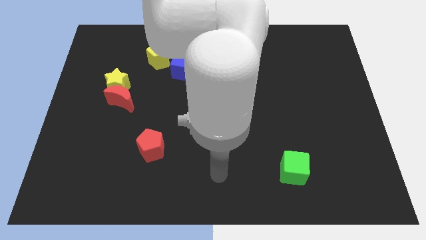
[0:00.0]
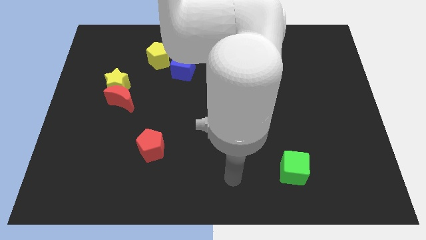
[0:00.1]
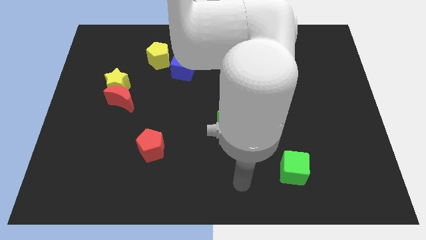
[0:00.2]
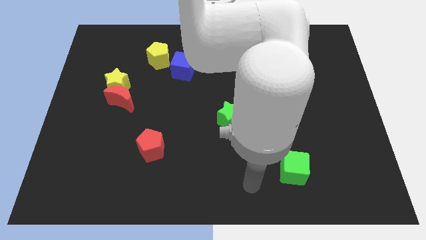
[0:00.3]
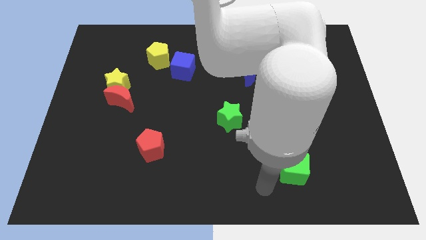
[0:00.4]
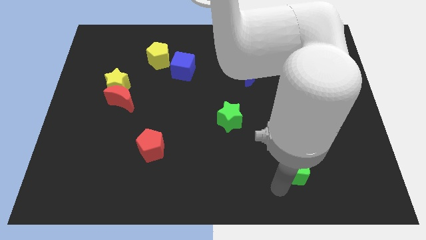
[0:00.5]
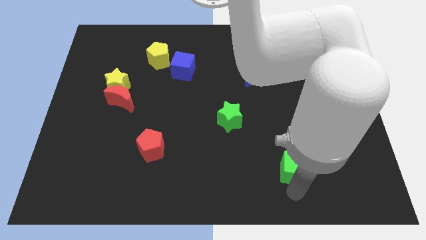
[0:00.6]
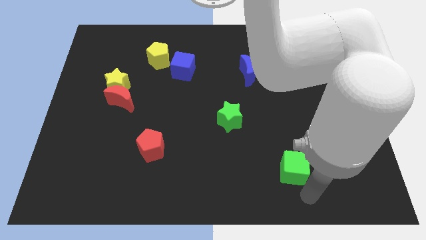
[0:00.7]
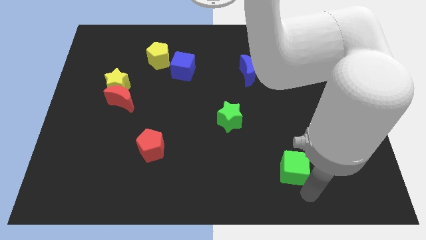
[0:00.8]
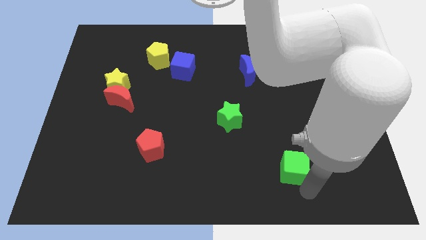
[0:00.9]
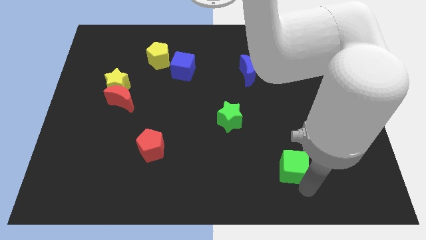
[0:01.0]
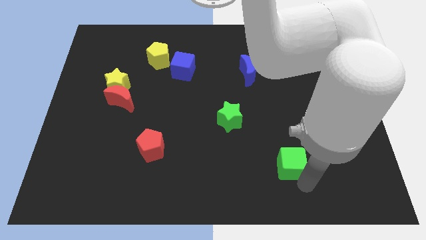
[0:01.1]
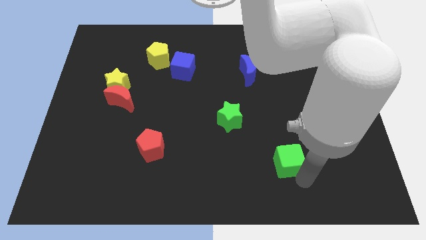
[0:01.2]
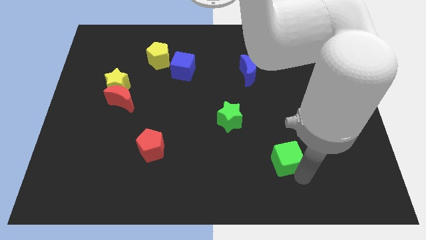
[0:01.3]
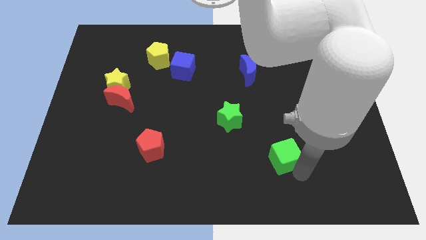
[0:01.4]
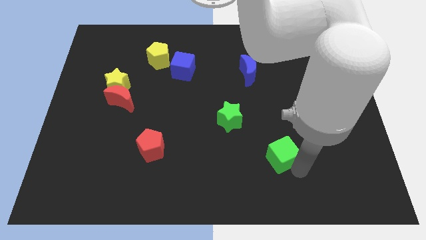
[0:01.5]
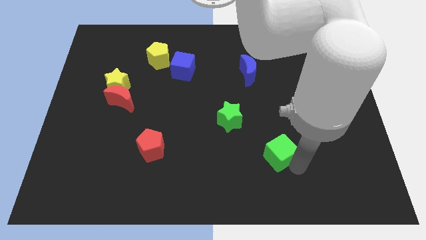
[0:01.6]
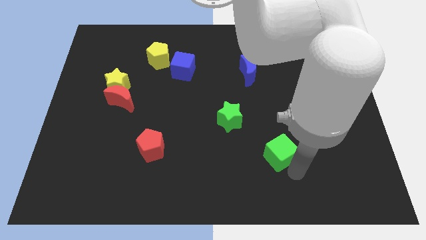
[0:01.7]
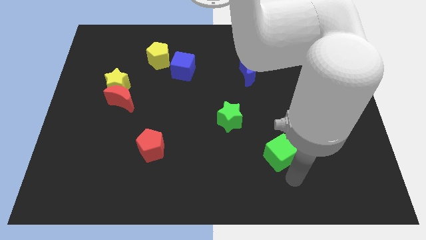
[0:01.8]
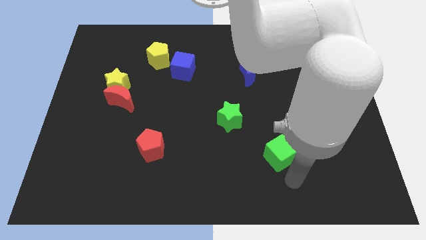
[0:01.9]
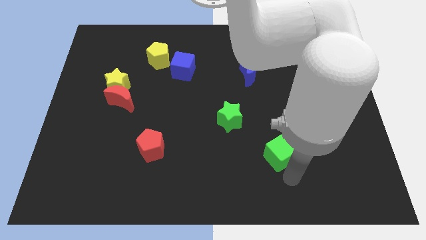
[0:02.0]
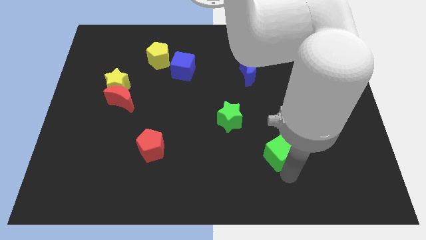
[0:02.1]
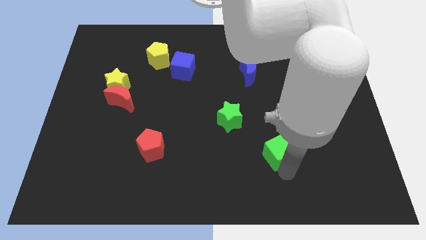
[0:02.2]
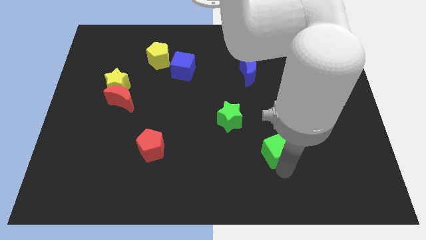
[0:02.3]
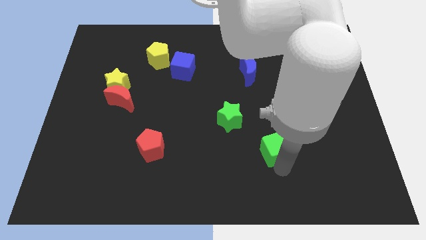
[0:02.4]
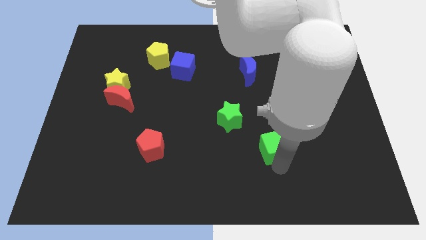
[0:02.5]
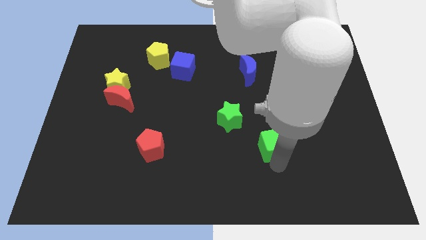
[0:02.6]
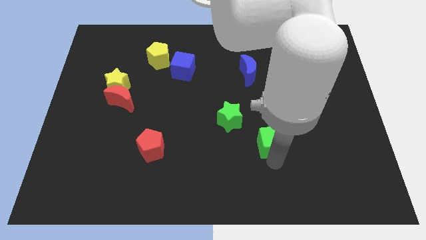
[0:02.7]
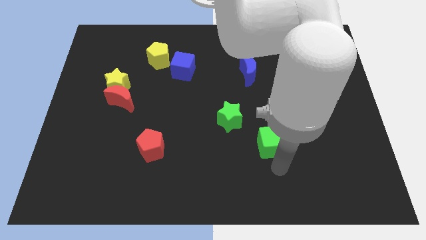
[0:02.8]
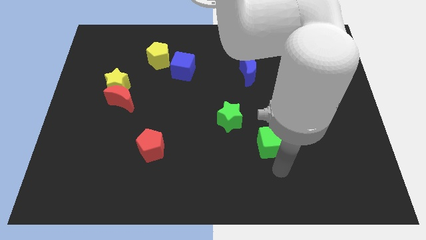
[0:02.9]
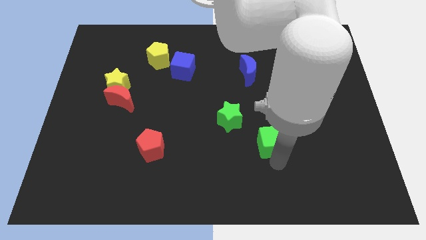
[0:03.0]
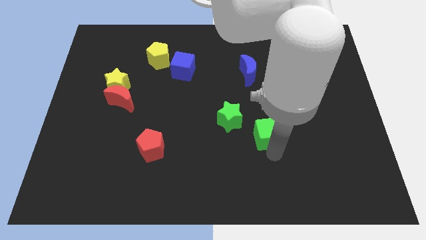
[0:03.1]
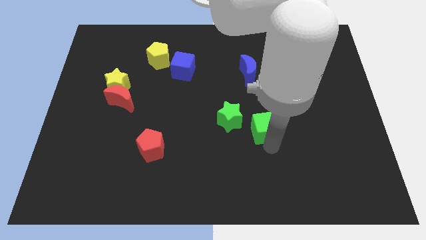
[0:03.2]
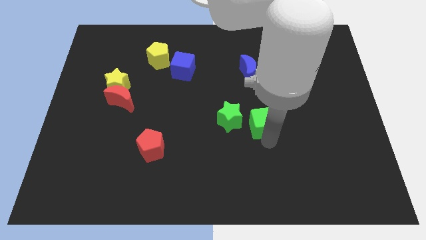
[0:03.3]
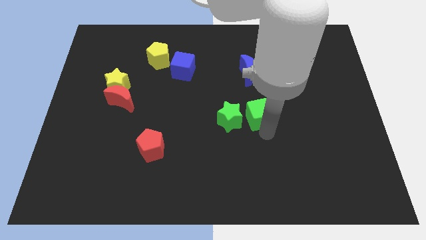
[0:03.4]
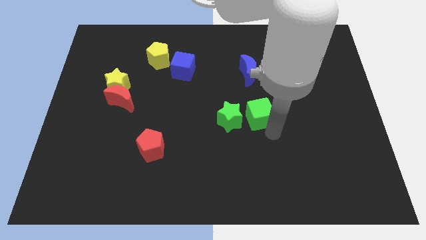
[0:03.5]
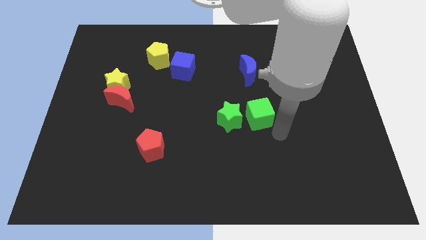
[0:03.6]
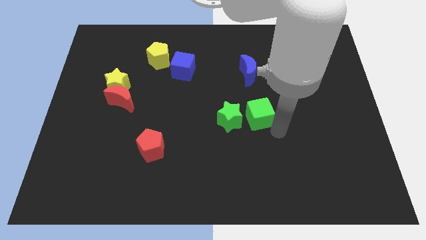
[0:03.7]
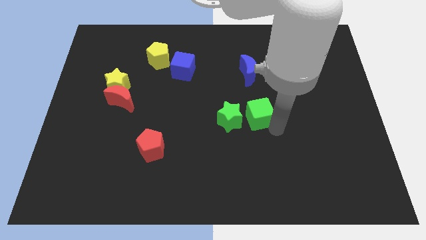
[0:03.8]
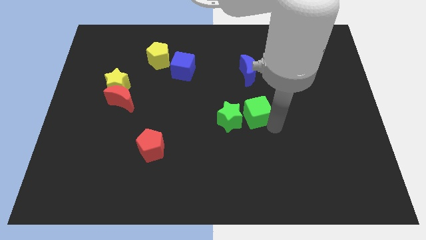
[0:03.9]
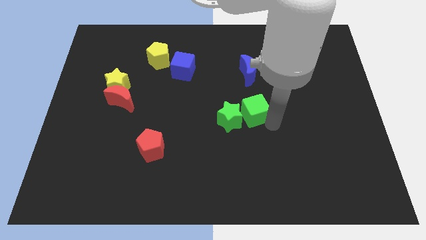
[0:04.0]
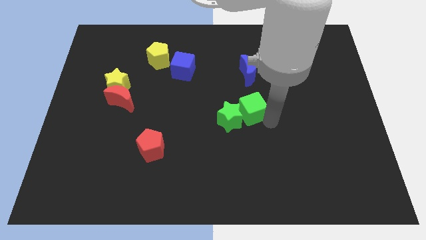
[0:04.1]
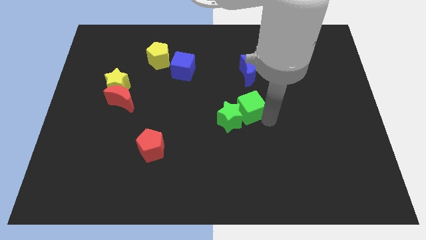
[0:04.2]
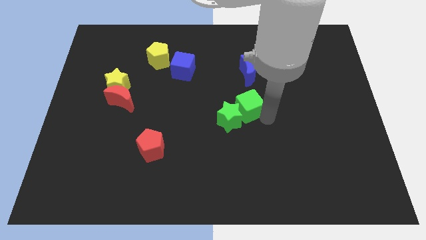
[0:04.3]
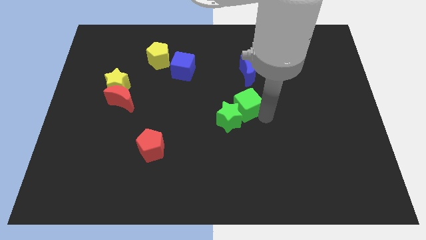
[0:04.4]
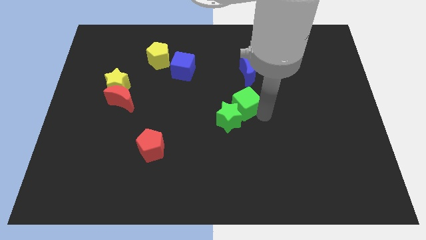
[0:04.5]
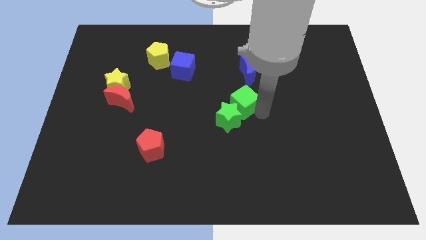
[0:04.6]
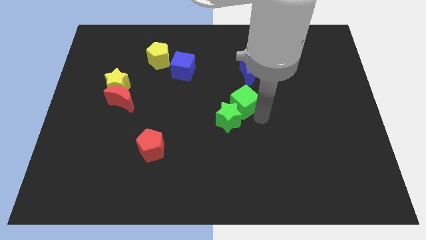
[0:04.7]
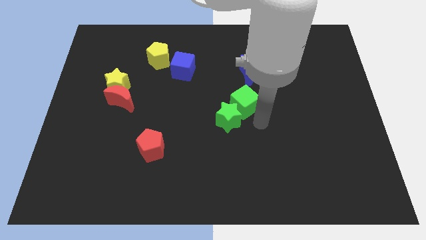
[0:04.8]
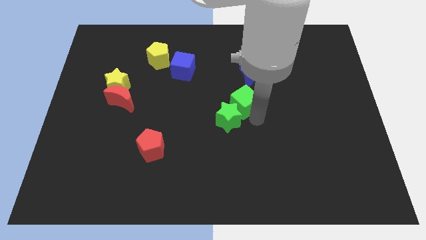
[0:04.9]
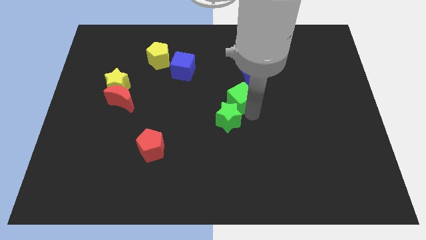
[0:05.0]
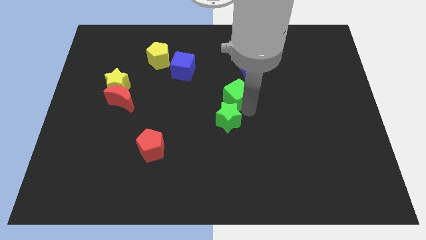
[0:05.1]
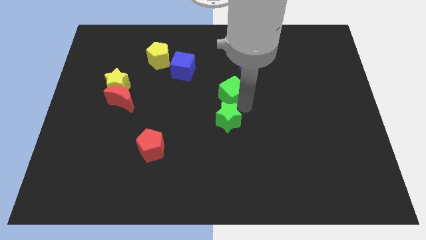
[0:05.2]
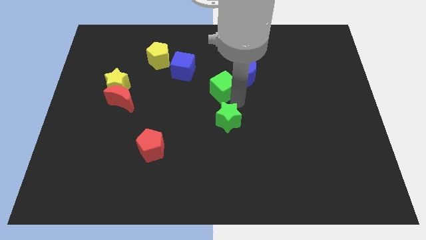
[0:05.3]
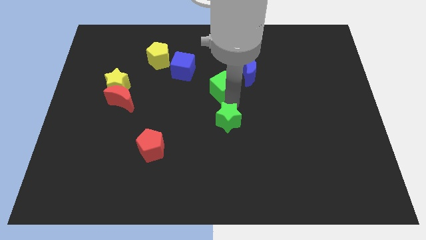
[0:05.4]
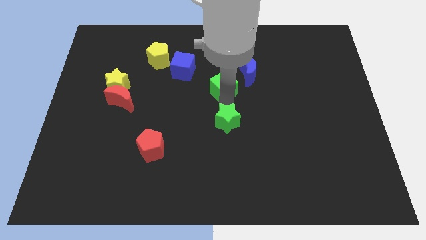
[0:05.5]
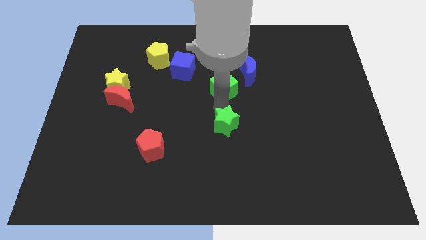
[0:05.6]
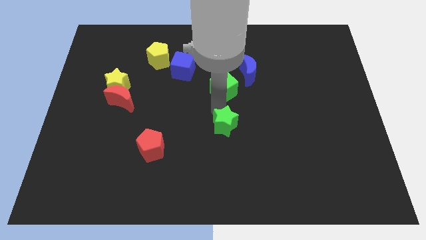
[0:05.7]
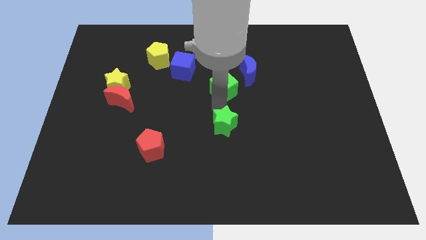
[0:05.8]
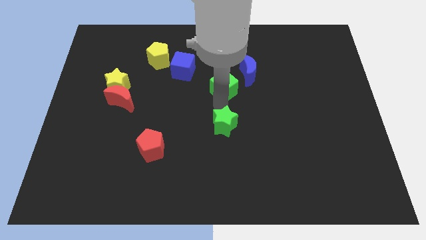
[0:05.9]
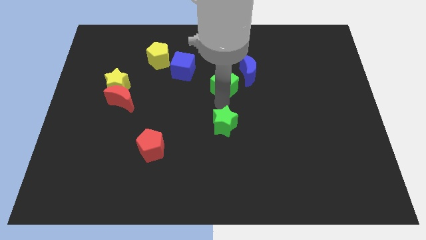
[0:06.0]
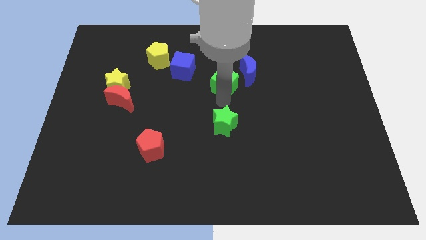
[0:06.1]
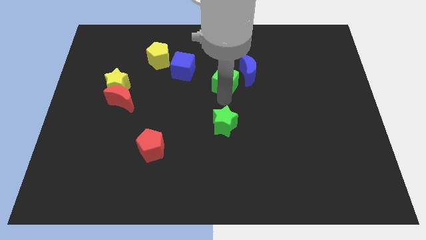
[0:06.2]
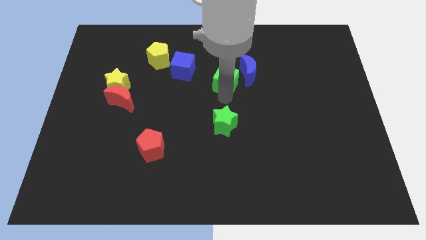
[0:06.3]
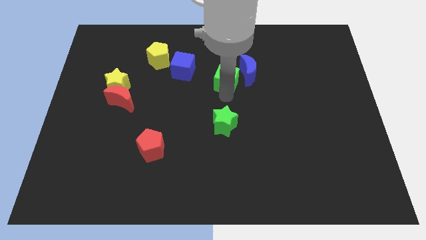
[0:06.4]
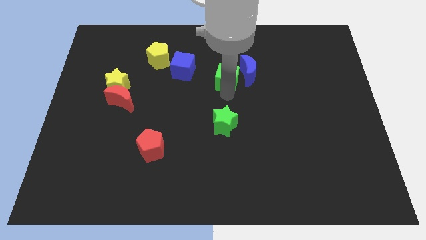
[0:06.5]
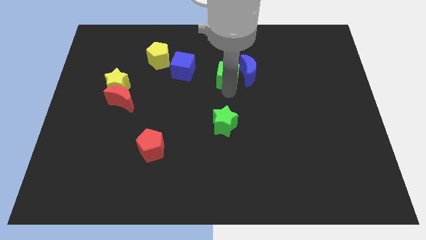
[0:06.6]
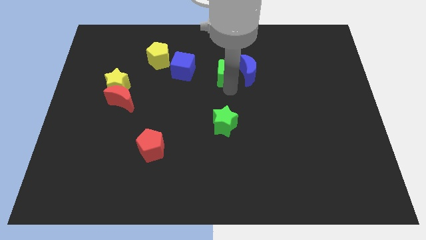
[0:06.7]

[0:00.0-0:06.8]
push the green cube to the top left of the blue moon
